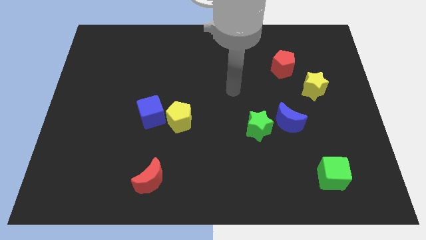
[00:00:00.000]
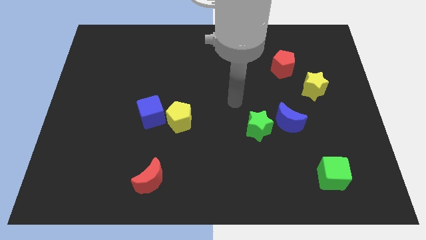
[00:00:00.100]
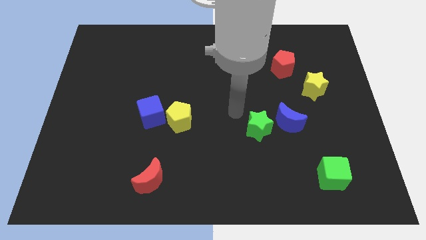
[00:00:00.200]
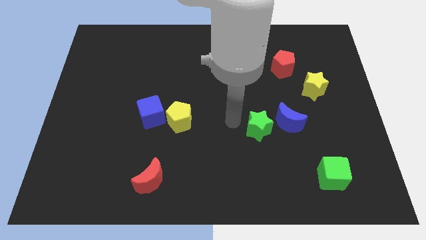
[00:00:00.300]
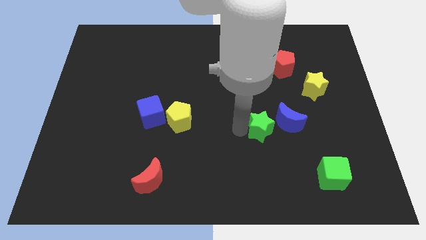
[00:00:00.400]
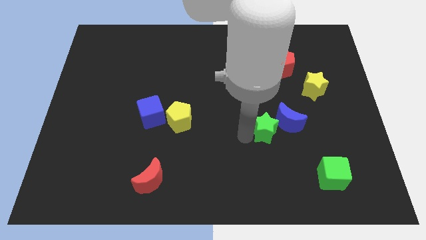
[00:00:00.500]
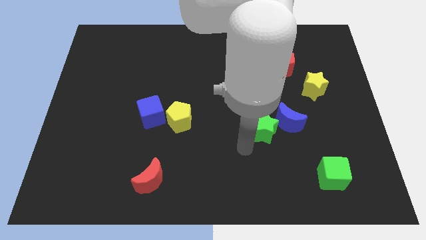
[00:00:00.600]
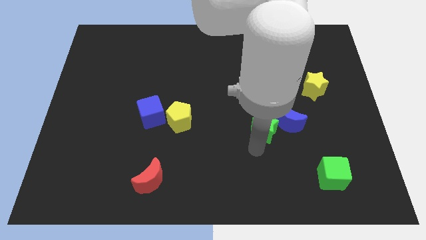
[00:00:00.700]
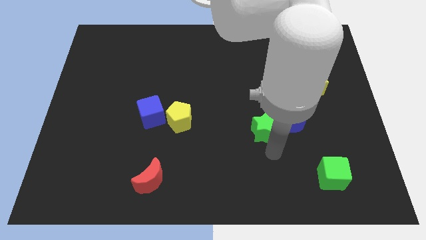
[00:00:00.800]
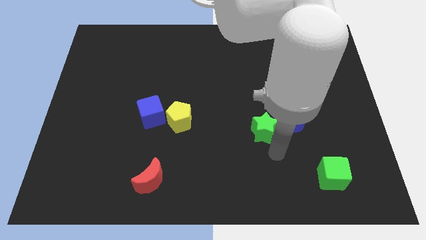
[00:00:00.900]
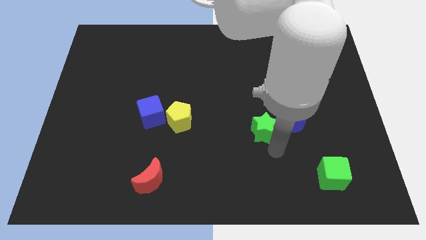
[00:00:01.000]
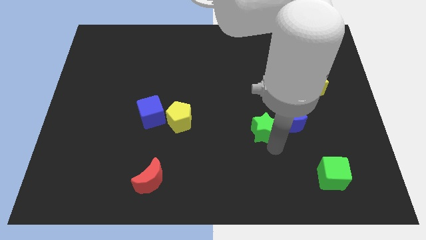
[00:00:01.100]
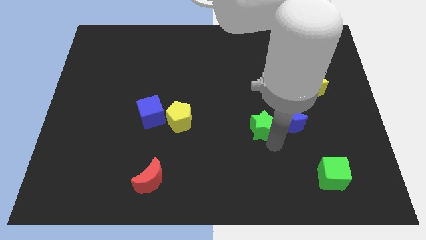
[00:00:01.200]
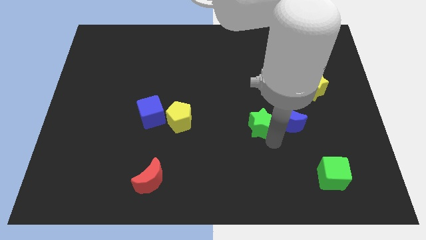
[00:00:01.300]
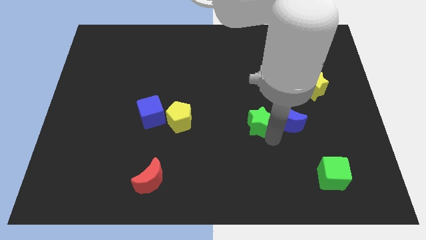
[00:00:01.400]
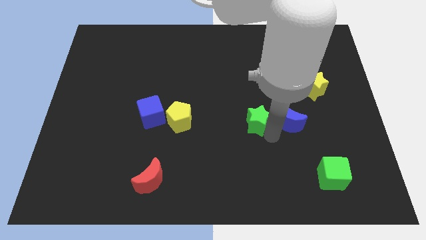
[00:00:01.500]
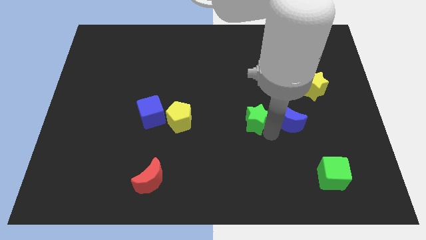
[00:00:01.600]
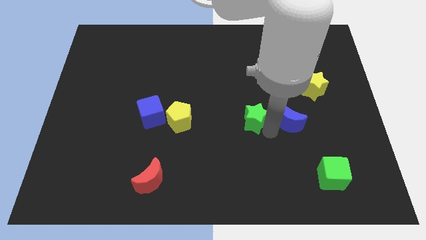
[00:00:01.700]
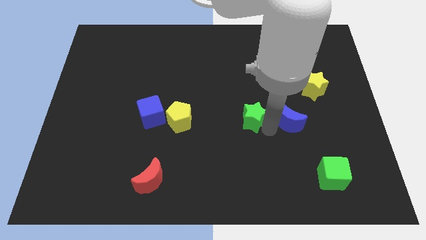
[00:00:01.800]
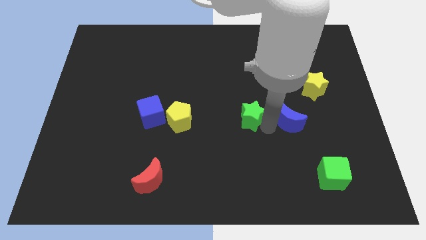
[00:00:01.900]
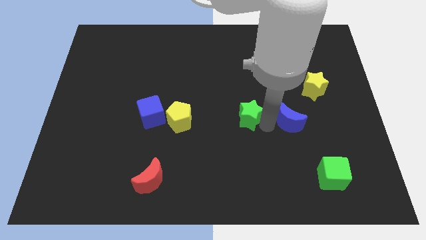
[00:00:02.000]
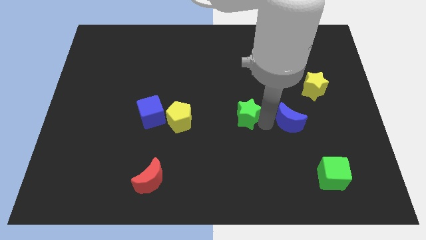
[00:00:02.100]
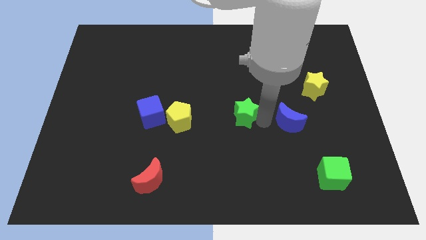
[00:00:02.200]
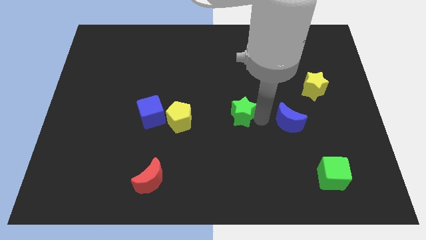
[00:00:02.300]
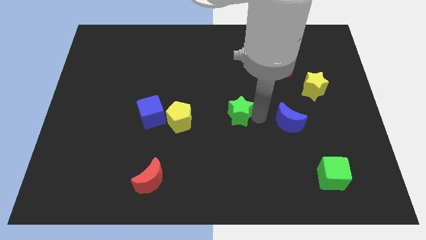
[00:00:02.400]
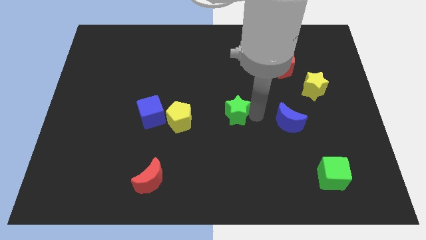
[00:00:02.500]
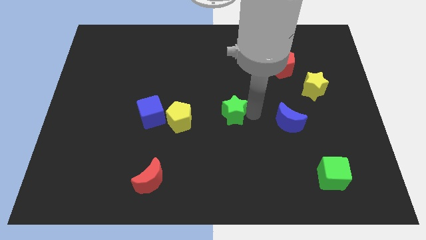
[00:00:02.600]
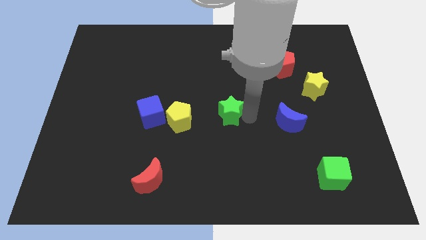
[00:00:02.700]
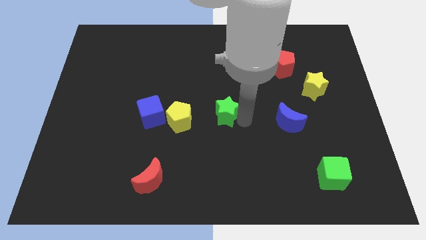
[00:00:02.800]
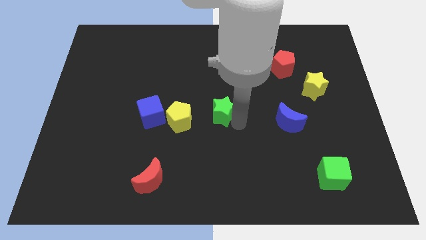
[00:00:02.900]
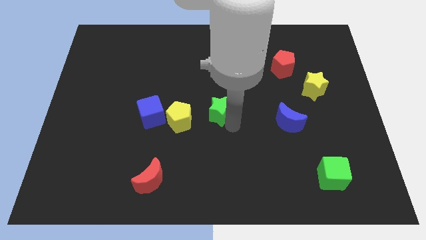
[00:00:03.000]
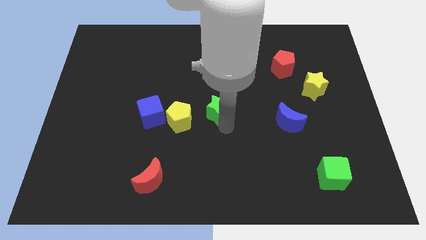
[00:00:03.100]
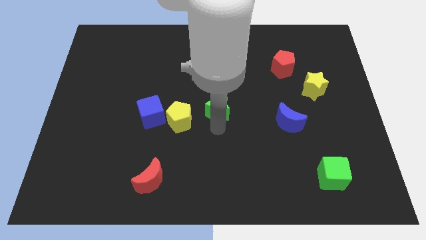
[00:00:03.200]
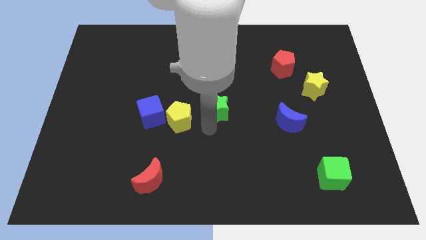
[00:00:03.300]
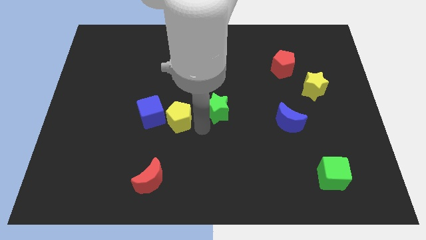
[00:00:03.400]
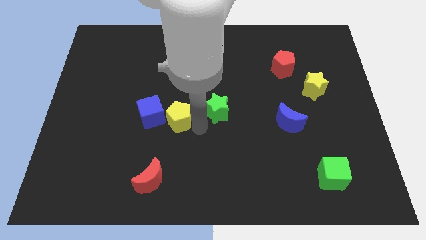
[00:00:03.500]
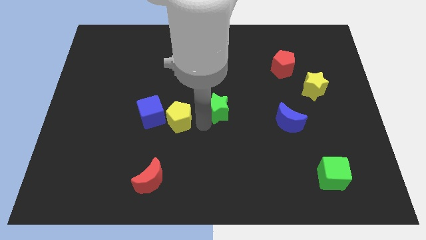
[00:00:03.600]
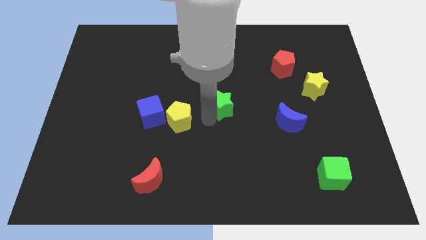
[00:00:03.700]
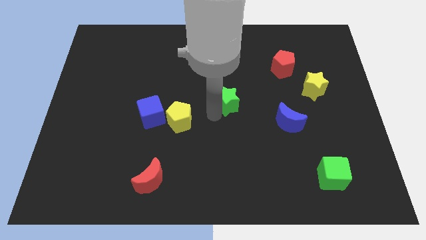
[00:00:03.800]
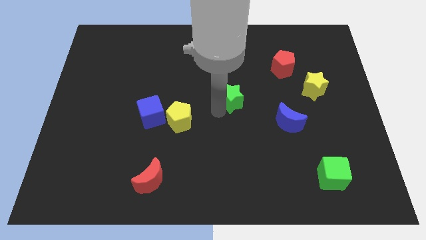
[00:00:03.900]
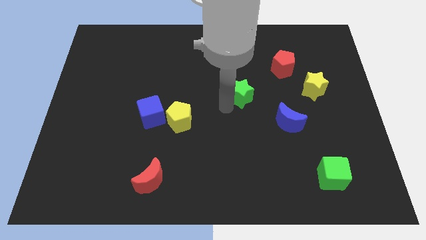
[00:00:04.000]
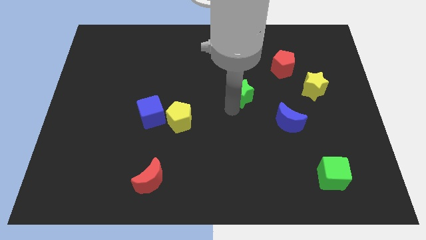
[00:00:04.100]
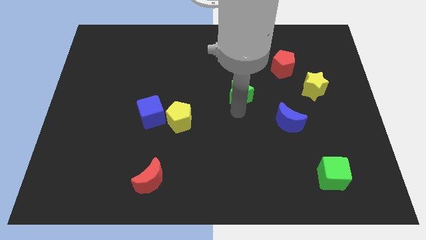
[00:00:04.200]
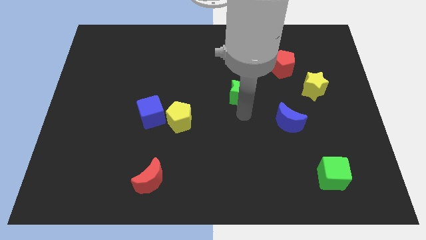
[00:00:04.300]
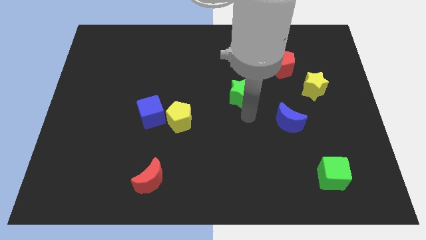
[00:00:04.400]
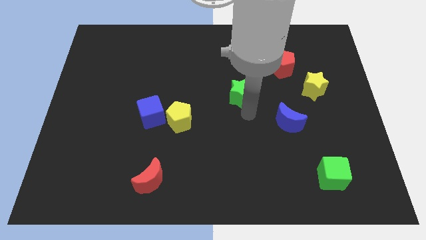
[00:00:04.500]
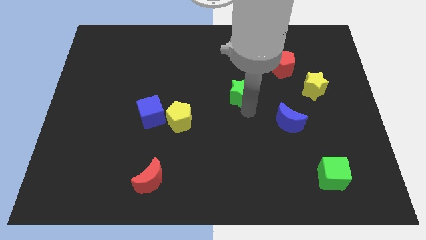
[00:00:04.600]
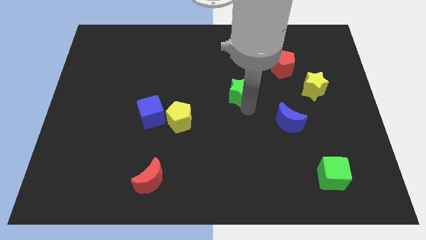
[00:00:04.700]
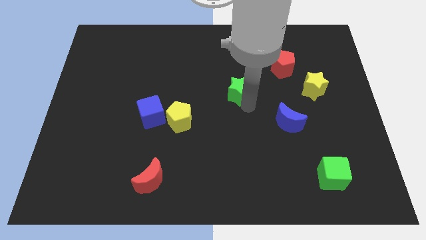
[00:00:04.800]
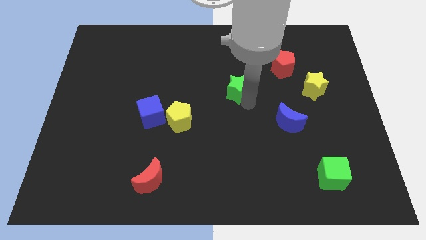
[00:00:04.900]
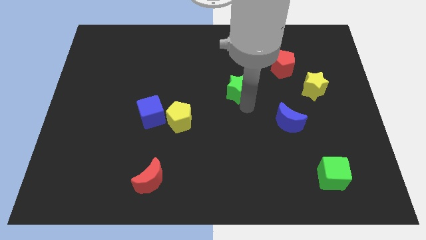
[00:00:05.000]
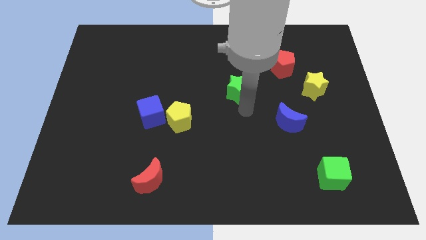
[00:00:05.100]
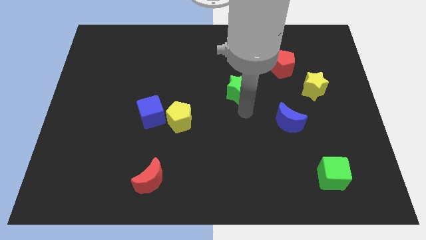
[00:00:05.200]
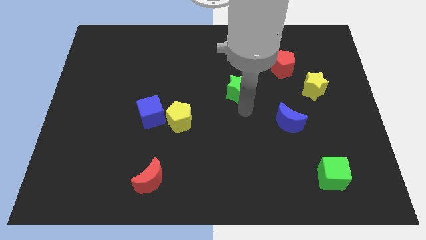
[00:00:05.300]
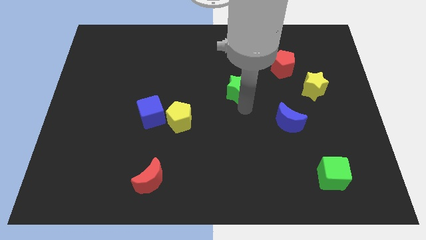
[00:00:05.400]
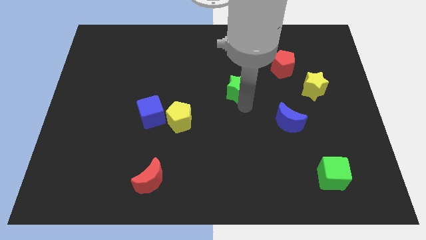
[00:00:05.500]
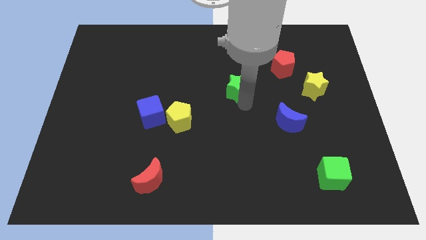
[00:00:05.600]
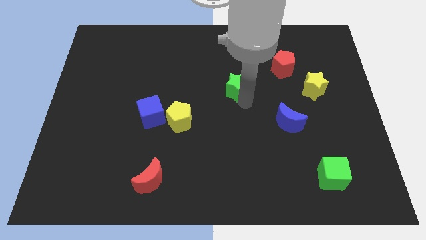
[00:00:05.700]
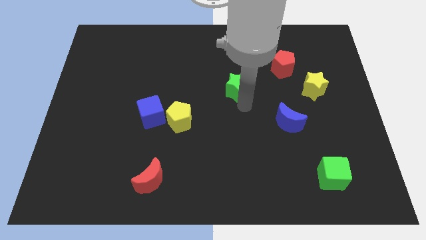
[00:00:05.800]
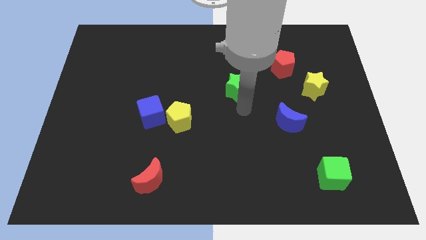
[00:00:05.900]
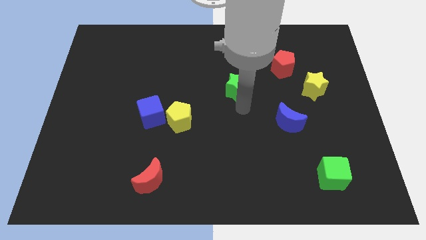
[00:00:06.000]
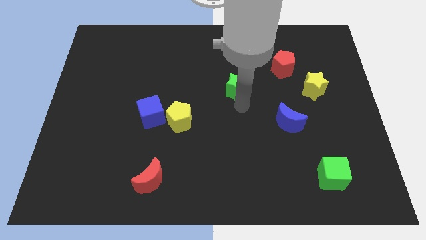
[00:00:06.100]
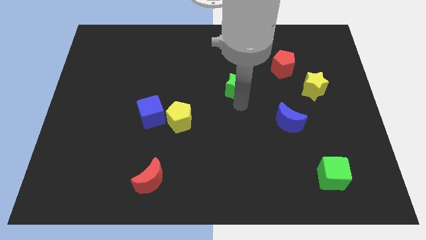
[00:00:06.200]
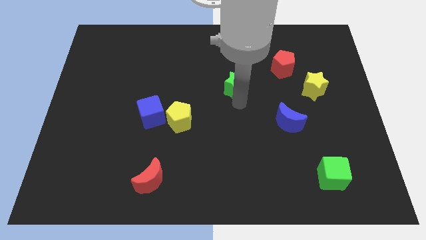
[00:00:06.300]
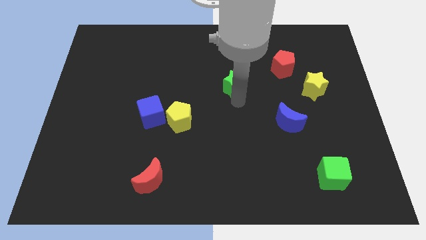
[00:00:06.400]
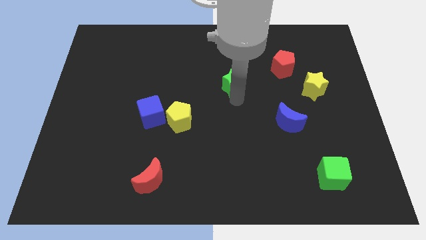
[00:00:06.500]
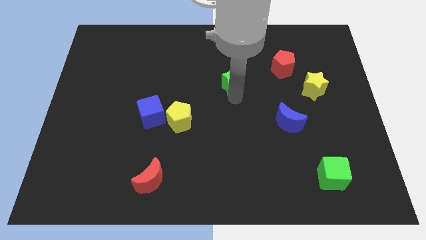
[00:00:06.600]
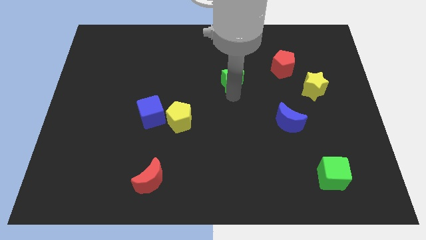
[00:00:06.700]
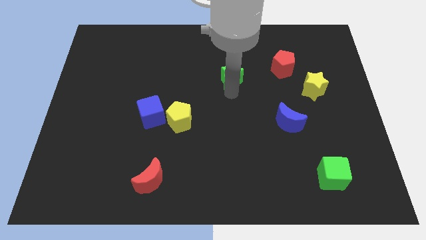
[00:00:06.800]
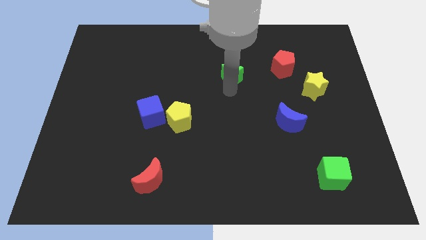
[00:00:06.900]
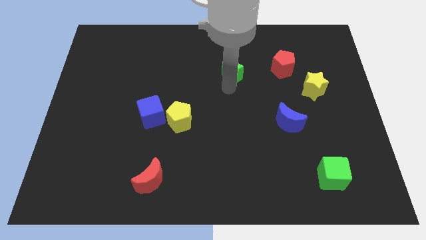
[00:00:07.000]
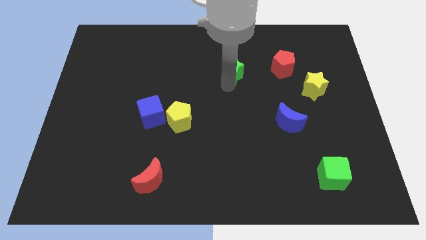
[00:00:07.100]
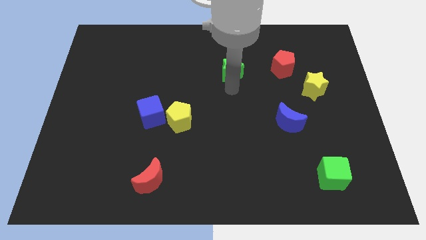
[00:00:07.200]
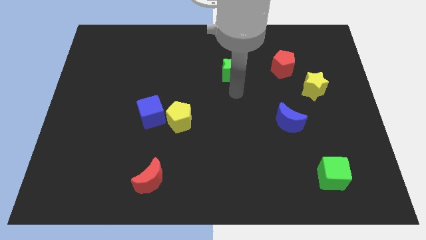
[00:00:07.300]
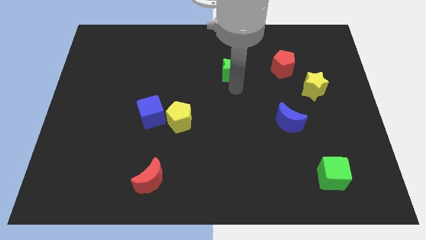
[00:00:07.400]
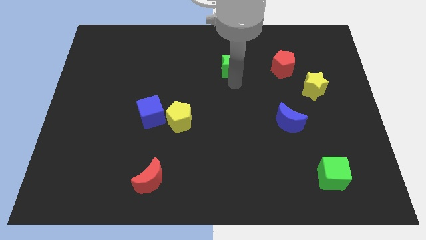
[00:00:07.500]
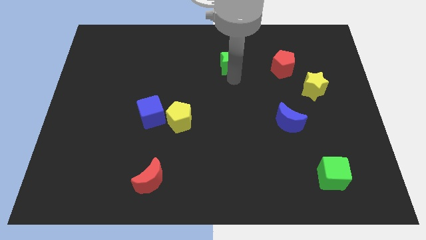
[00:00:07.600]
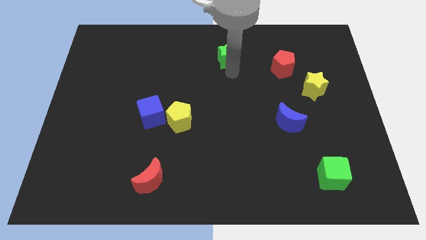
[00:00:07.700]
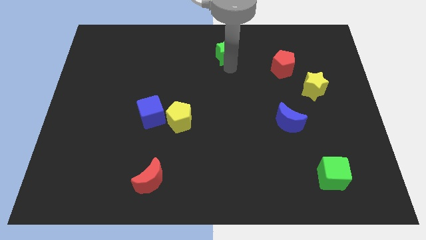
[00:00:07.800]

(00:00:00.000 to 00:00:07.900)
push the green star to the towards your base
